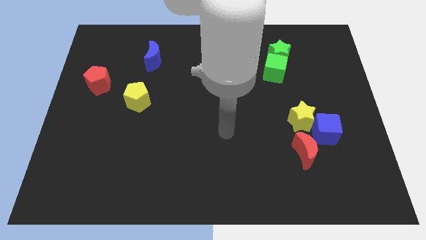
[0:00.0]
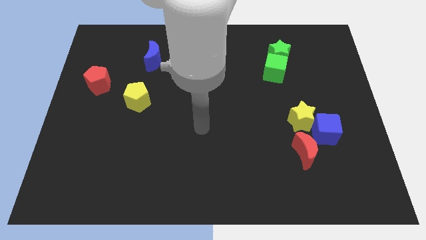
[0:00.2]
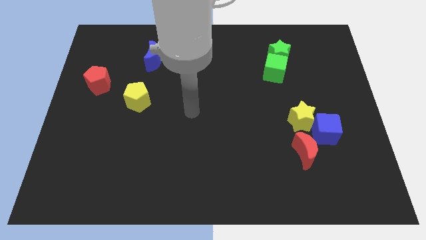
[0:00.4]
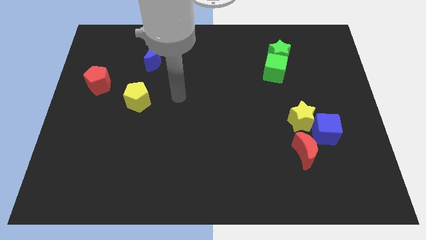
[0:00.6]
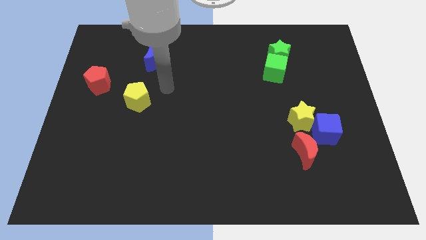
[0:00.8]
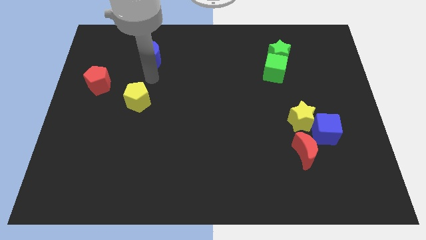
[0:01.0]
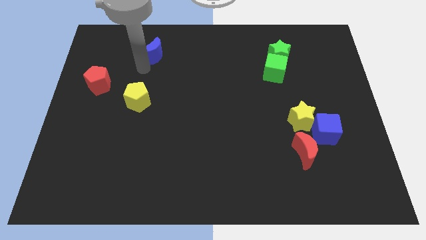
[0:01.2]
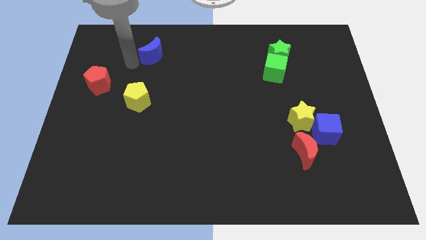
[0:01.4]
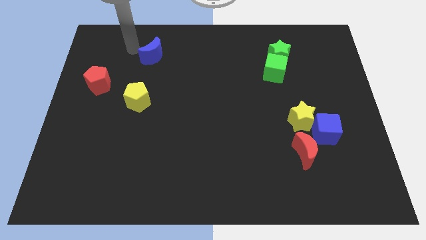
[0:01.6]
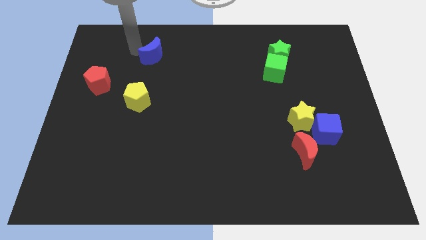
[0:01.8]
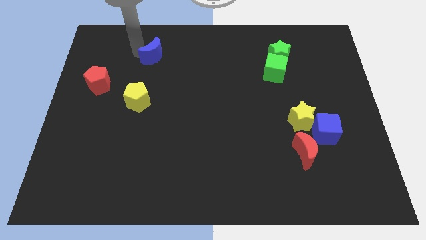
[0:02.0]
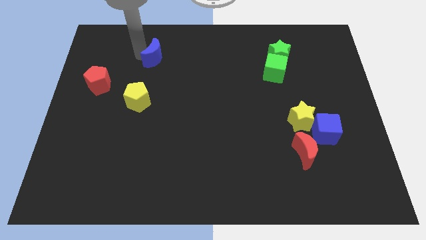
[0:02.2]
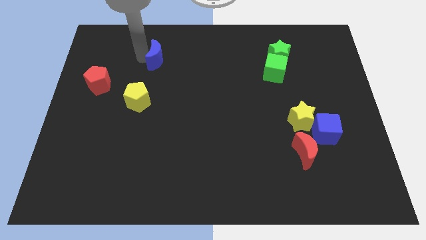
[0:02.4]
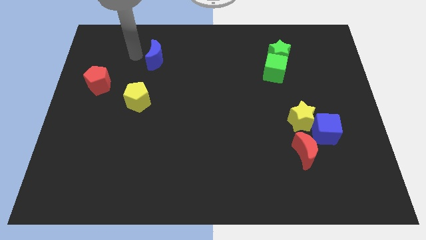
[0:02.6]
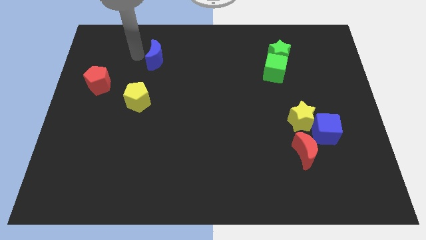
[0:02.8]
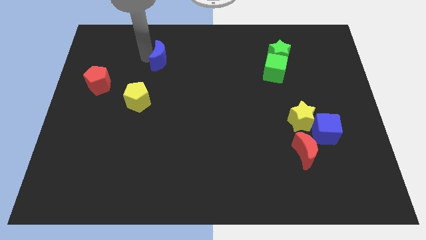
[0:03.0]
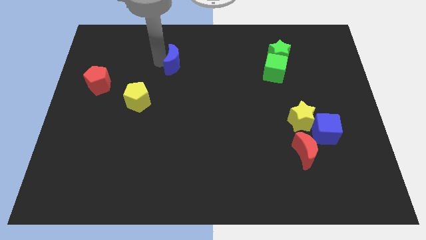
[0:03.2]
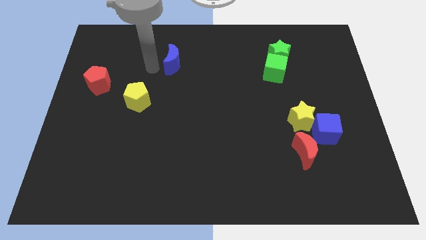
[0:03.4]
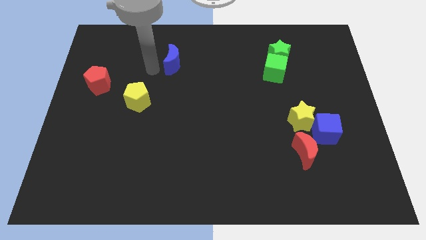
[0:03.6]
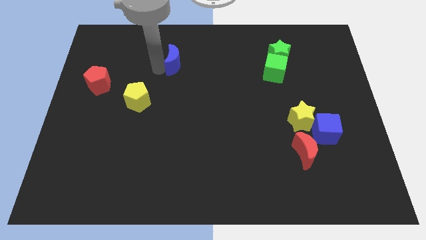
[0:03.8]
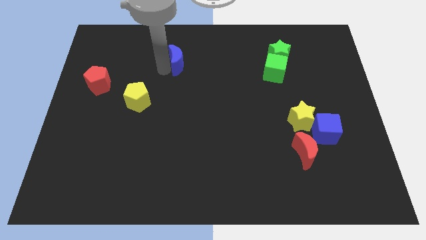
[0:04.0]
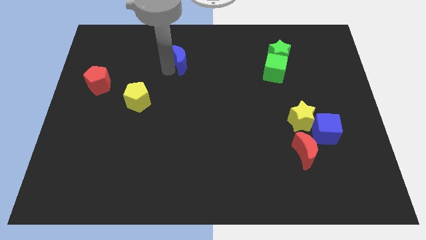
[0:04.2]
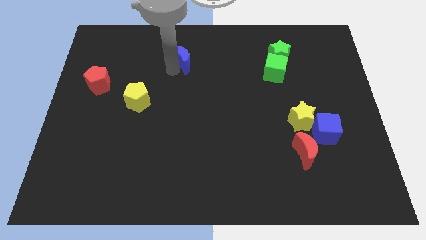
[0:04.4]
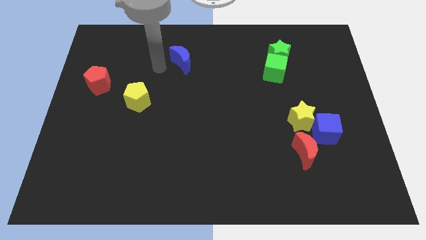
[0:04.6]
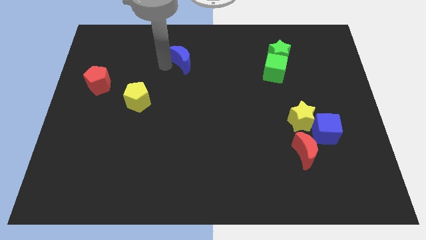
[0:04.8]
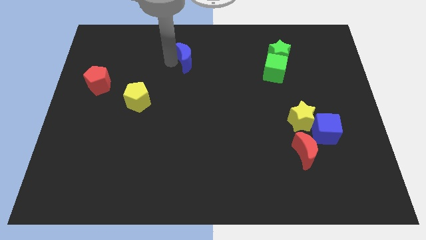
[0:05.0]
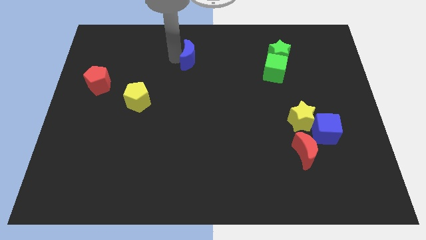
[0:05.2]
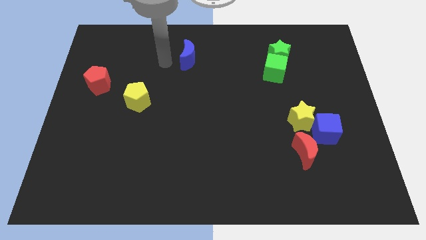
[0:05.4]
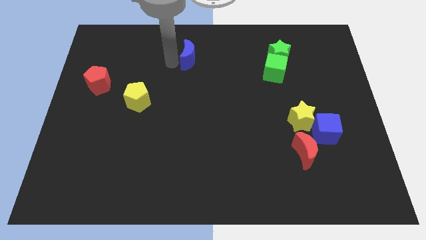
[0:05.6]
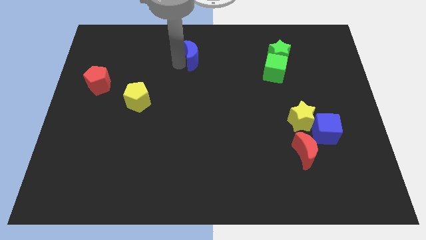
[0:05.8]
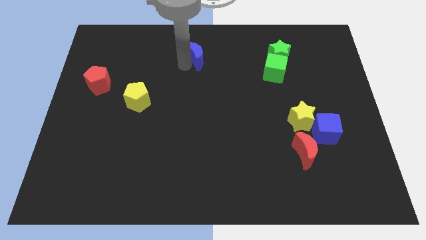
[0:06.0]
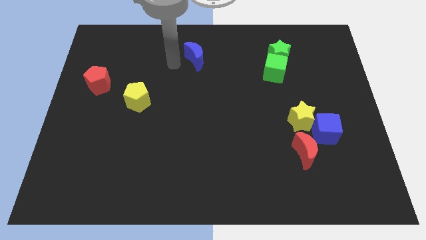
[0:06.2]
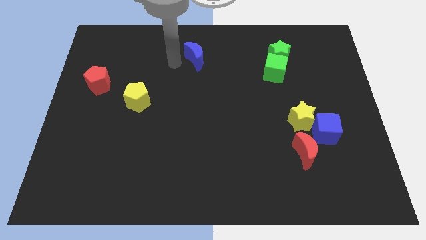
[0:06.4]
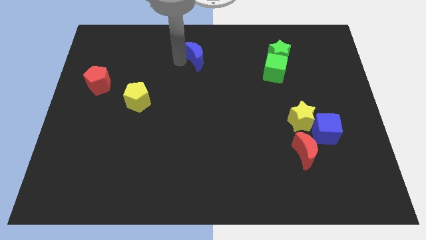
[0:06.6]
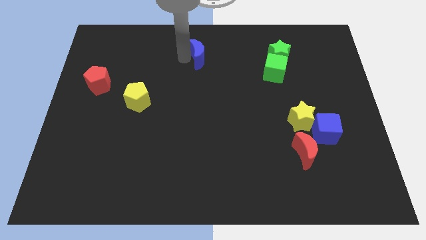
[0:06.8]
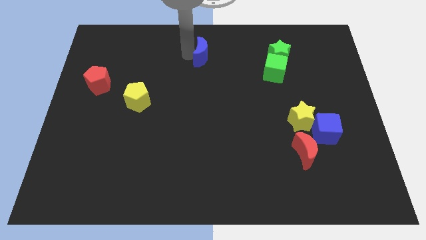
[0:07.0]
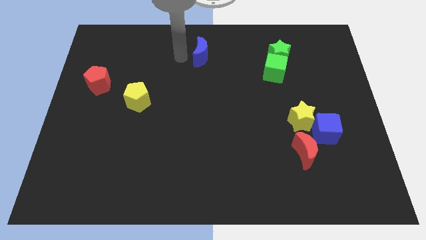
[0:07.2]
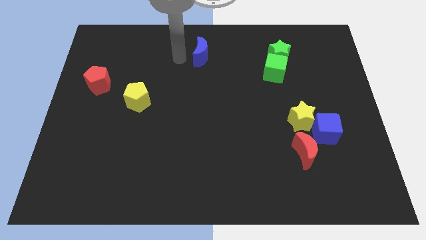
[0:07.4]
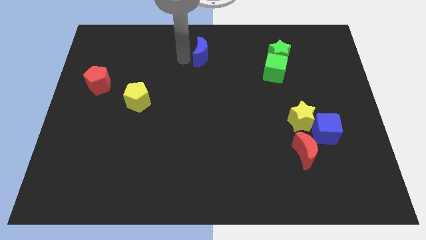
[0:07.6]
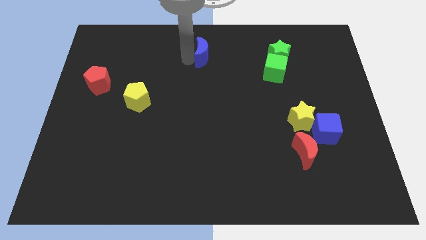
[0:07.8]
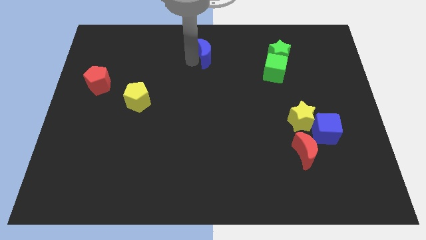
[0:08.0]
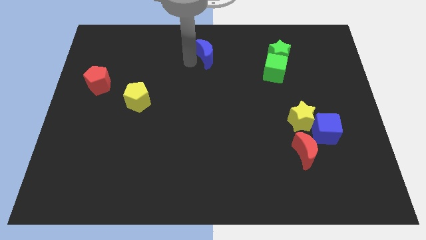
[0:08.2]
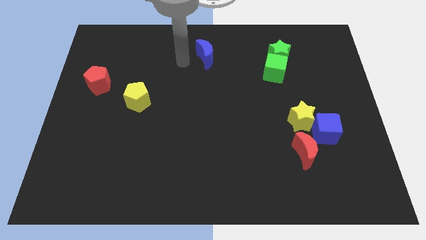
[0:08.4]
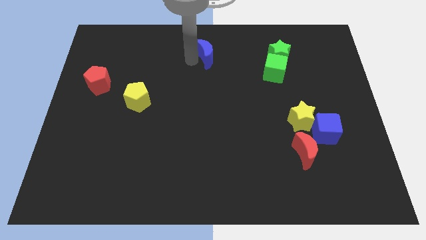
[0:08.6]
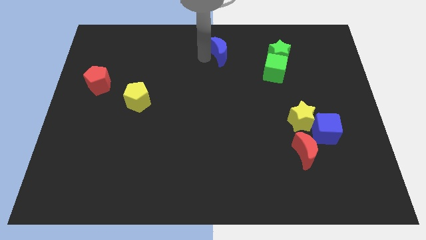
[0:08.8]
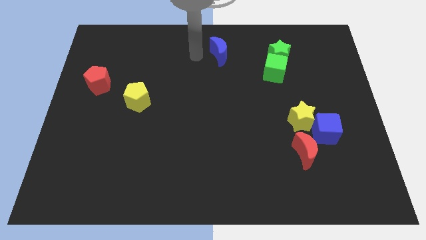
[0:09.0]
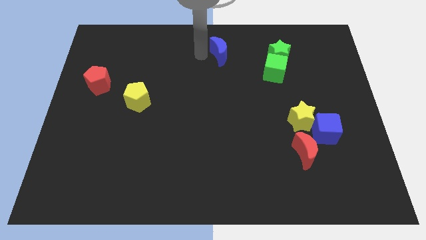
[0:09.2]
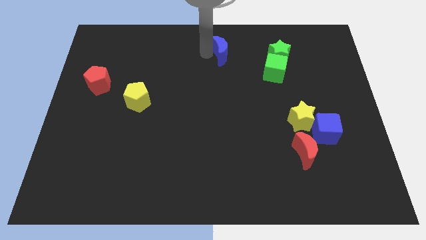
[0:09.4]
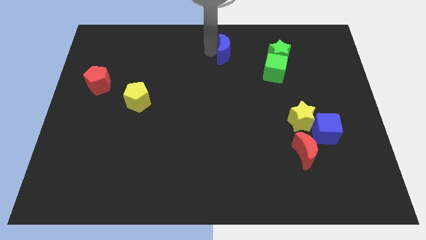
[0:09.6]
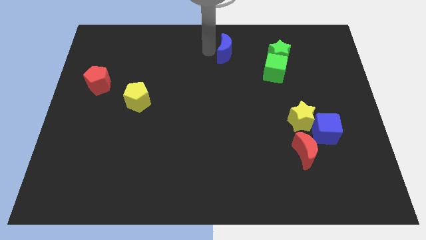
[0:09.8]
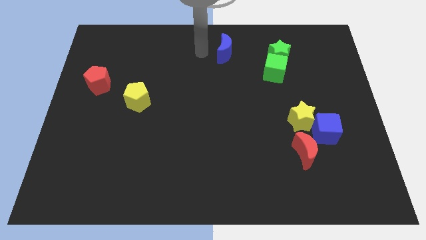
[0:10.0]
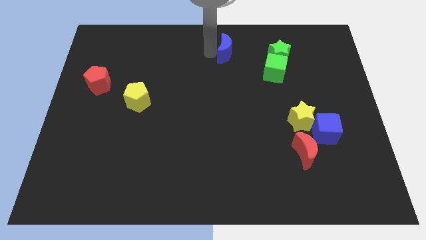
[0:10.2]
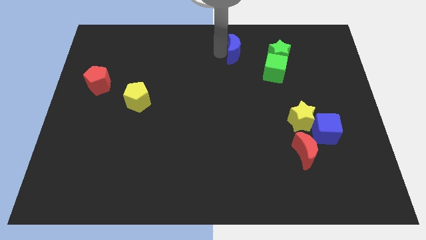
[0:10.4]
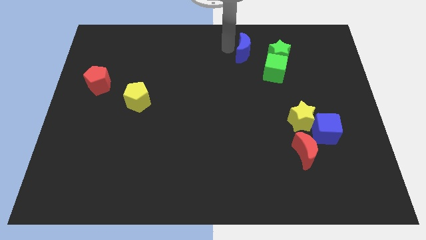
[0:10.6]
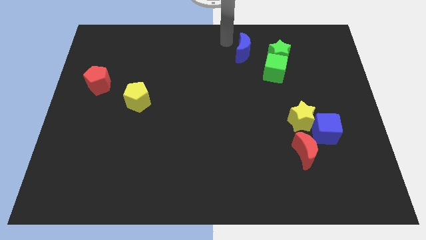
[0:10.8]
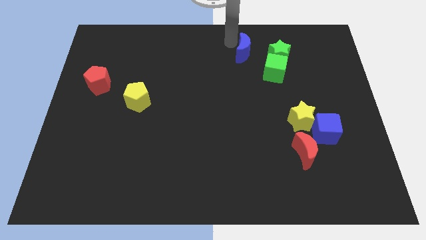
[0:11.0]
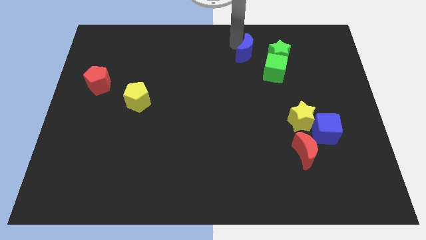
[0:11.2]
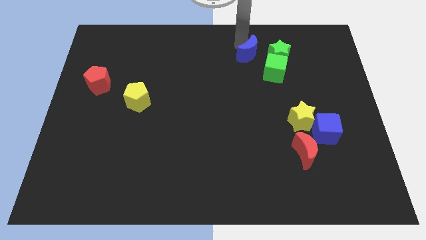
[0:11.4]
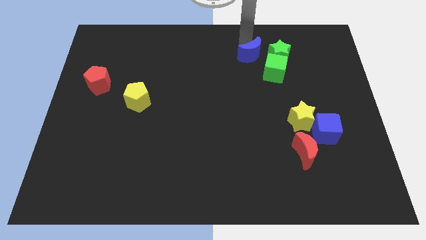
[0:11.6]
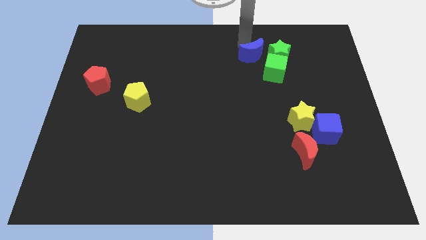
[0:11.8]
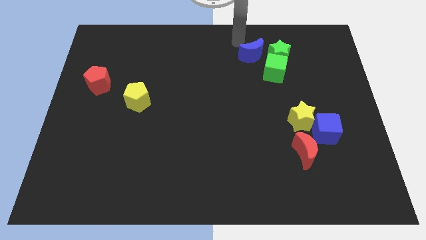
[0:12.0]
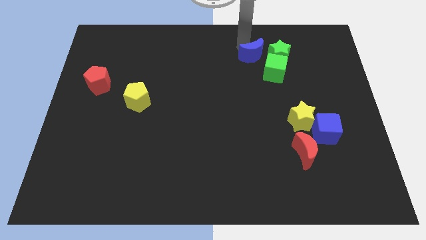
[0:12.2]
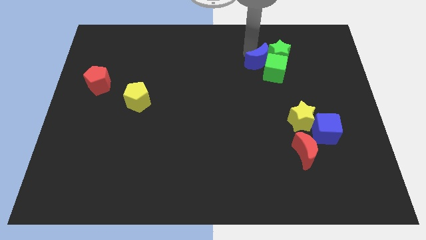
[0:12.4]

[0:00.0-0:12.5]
move the blue moon to the green cube

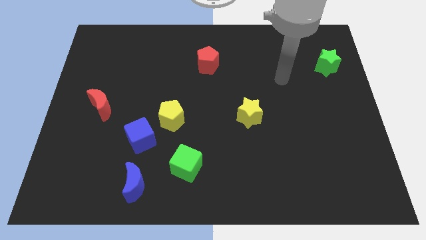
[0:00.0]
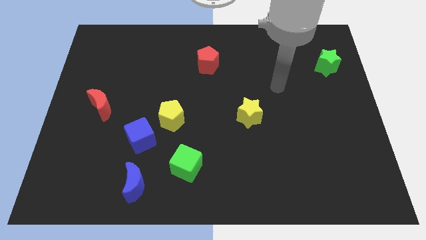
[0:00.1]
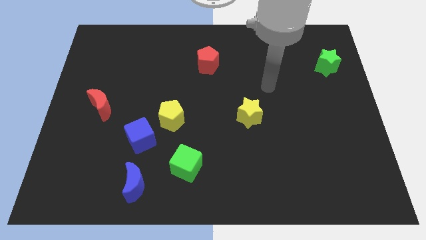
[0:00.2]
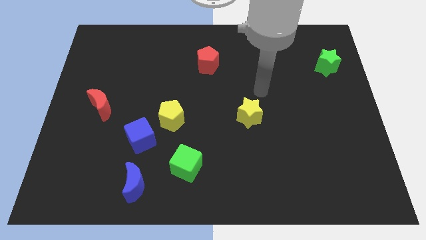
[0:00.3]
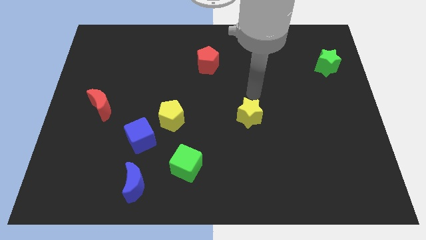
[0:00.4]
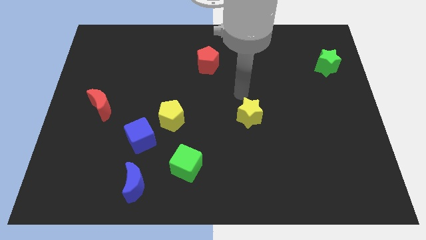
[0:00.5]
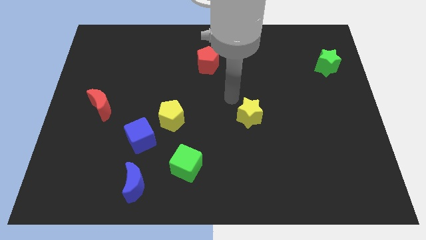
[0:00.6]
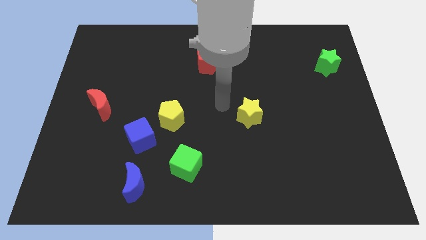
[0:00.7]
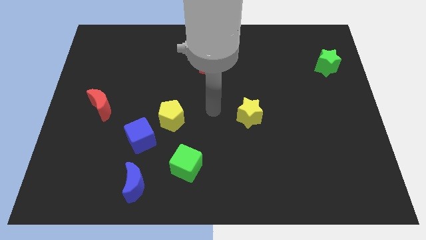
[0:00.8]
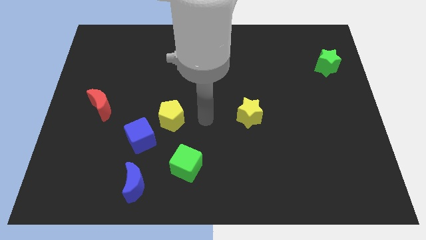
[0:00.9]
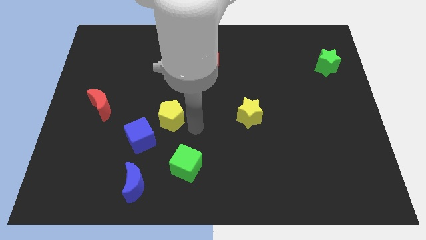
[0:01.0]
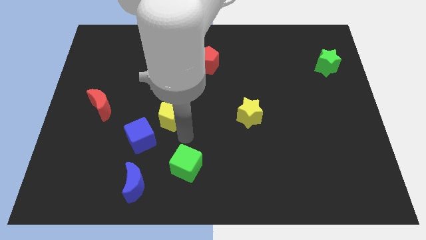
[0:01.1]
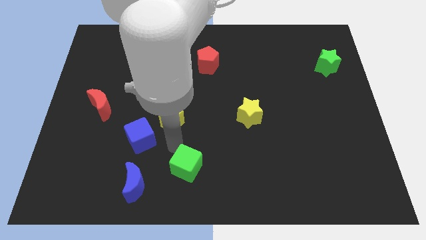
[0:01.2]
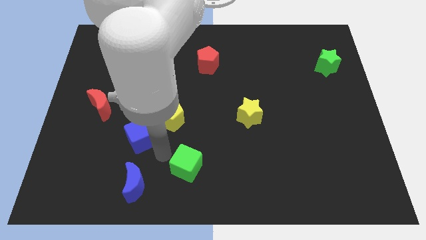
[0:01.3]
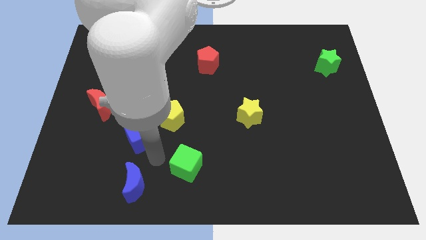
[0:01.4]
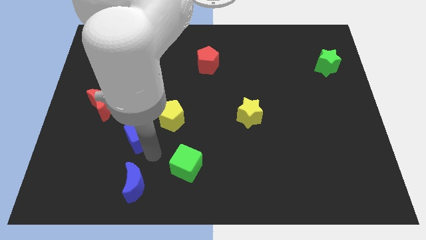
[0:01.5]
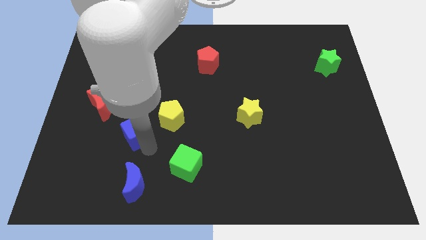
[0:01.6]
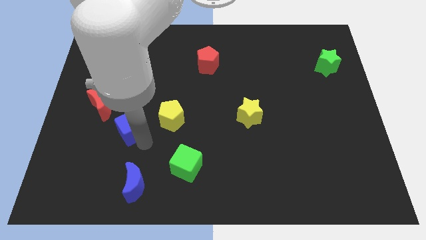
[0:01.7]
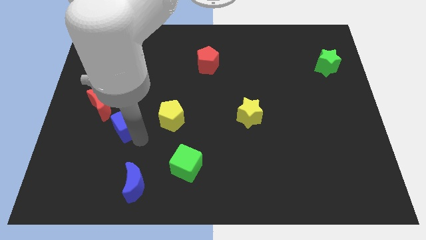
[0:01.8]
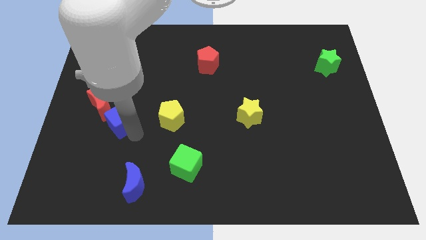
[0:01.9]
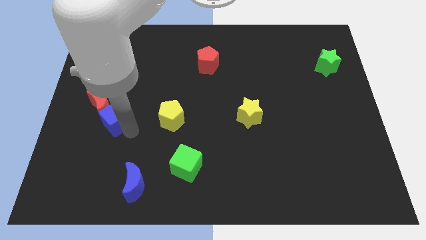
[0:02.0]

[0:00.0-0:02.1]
move the blue cube to the red moon
